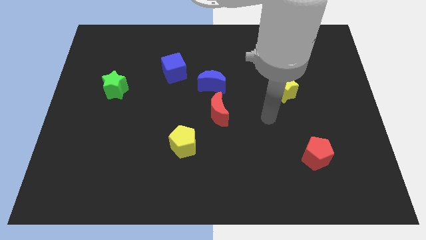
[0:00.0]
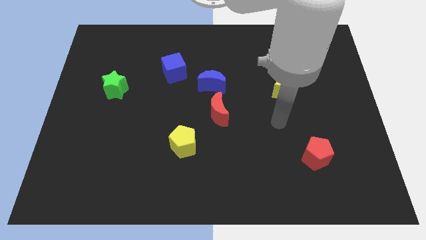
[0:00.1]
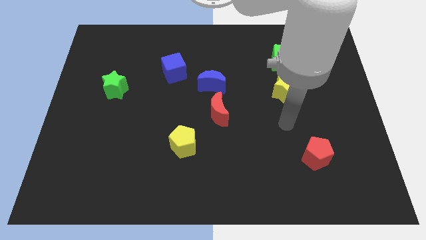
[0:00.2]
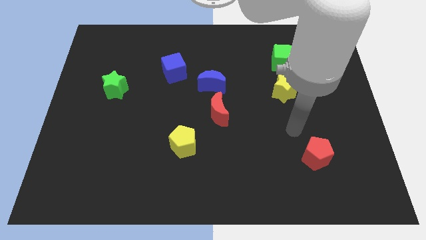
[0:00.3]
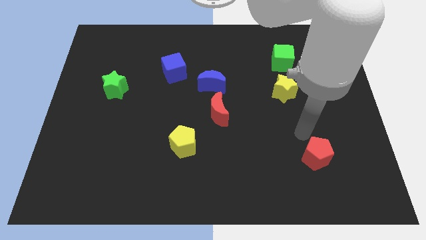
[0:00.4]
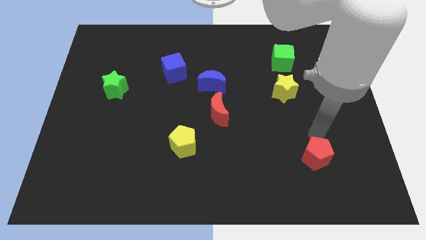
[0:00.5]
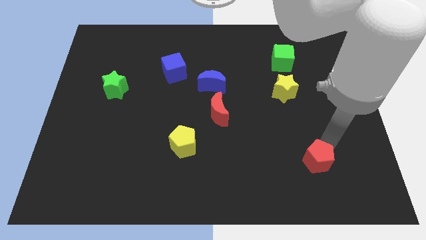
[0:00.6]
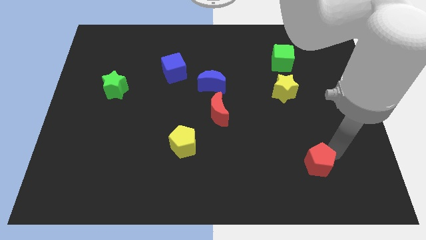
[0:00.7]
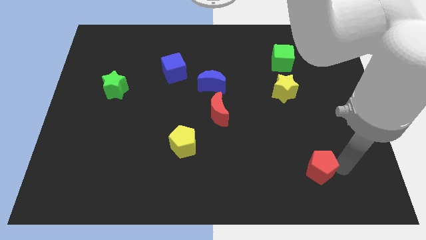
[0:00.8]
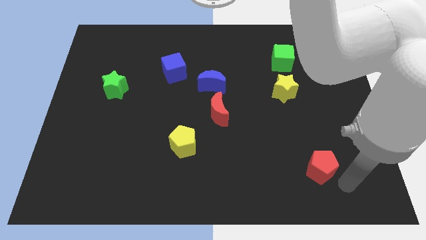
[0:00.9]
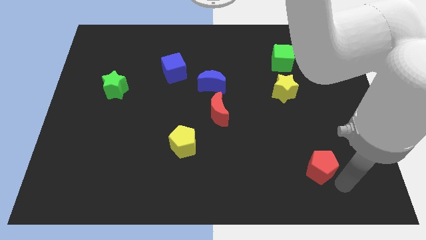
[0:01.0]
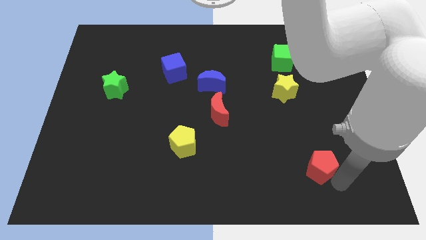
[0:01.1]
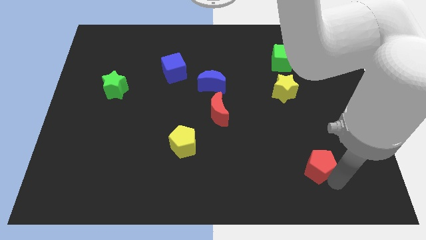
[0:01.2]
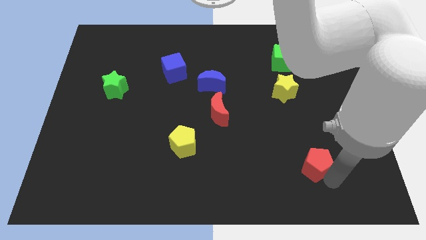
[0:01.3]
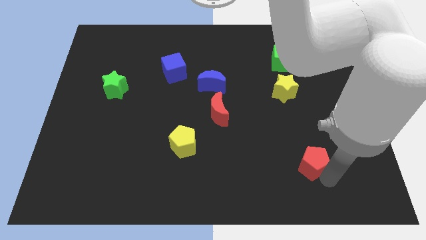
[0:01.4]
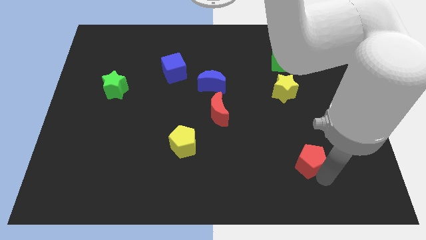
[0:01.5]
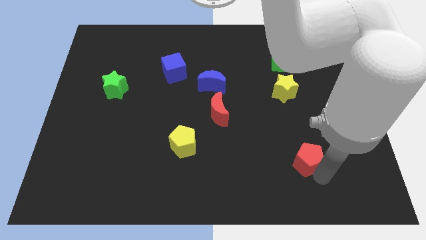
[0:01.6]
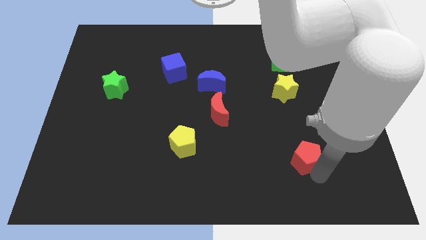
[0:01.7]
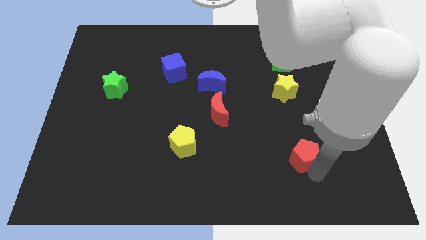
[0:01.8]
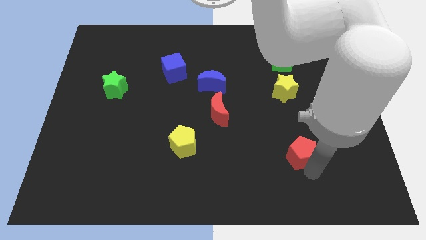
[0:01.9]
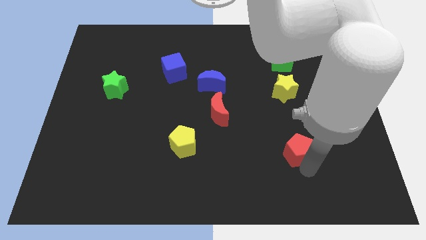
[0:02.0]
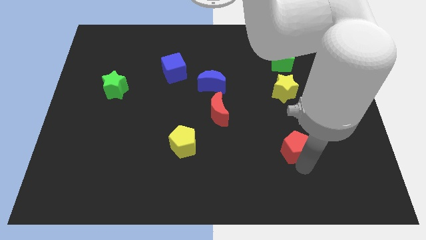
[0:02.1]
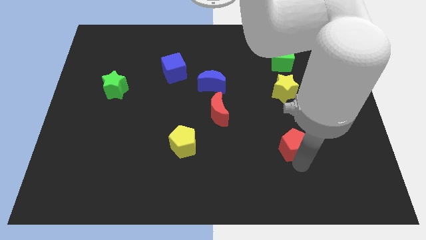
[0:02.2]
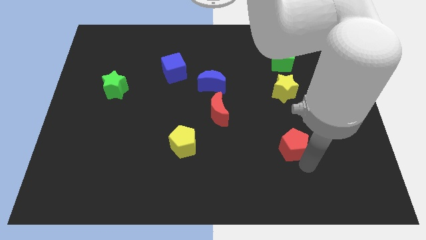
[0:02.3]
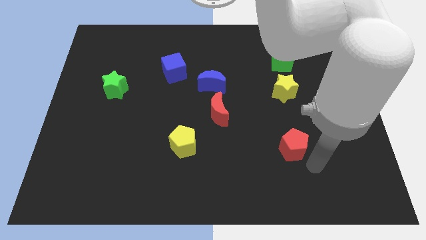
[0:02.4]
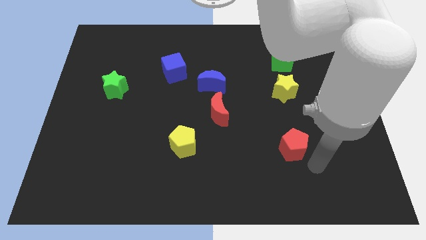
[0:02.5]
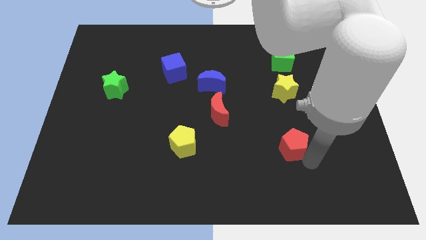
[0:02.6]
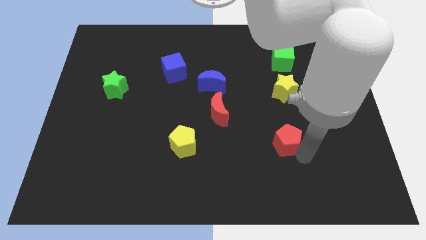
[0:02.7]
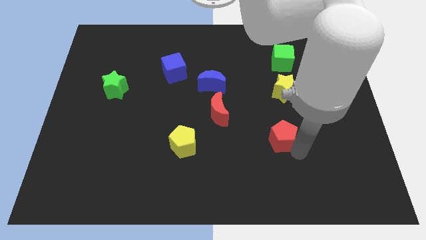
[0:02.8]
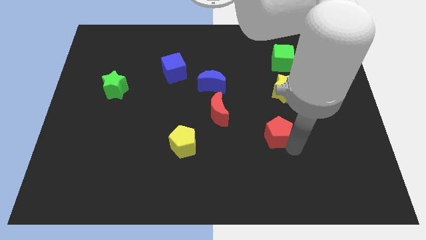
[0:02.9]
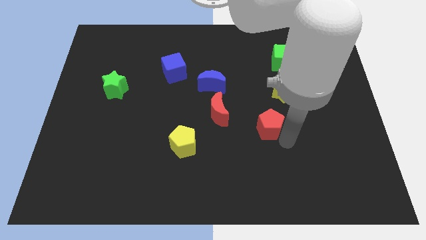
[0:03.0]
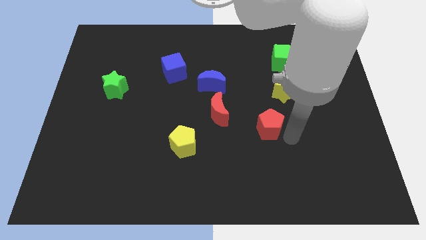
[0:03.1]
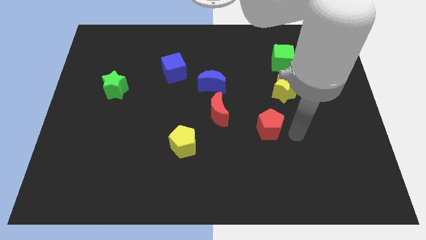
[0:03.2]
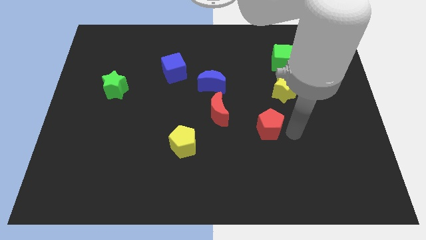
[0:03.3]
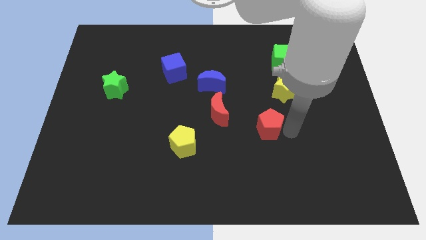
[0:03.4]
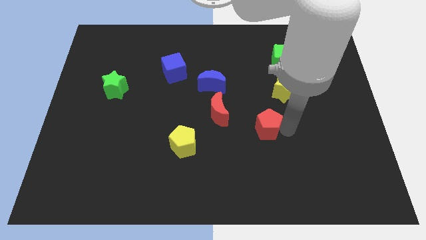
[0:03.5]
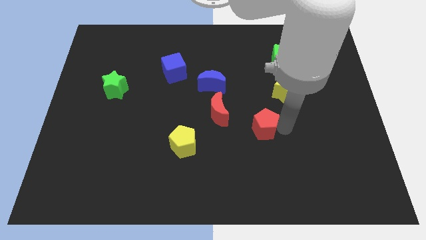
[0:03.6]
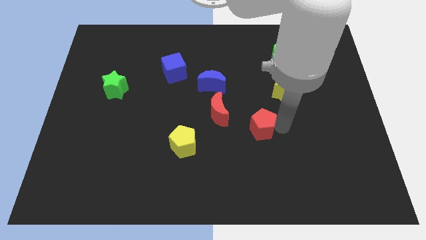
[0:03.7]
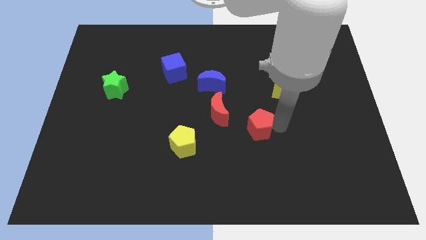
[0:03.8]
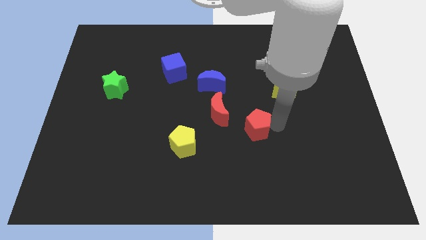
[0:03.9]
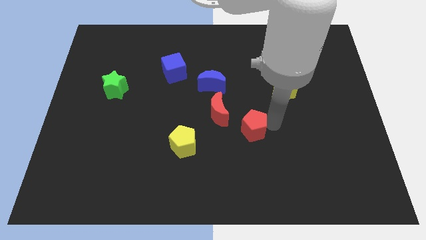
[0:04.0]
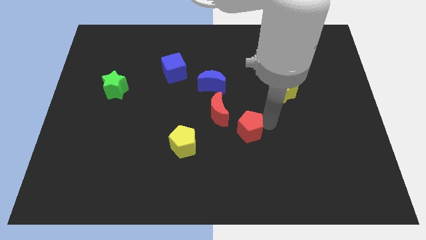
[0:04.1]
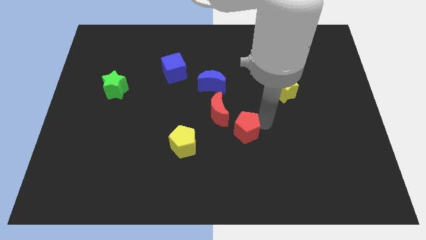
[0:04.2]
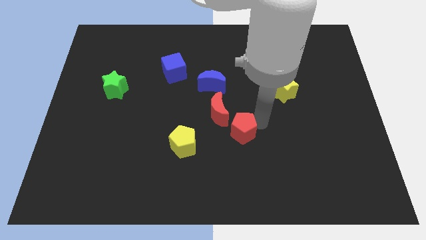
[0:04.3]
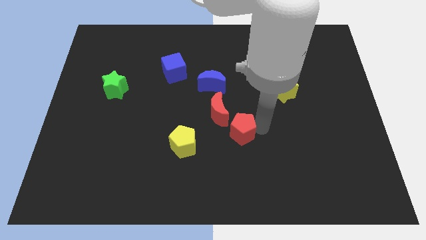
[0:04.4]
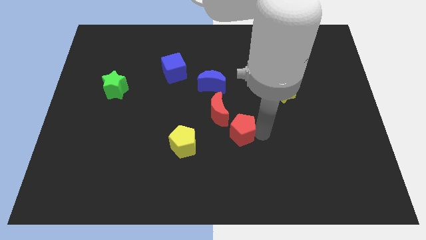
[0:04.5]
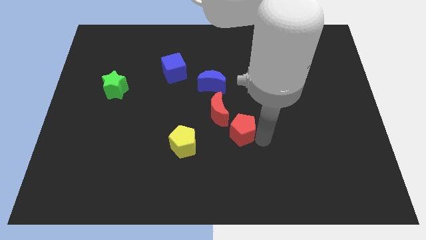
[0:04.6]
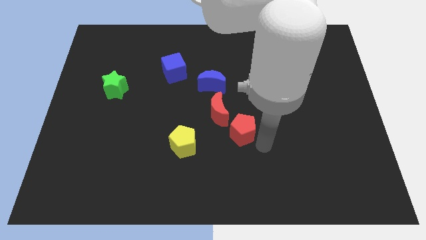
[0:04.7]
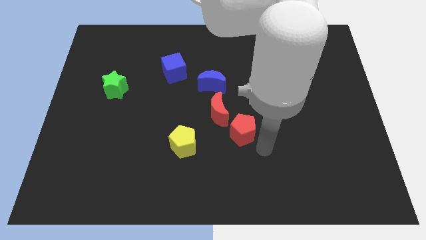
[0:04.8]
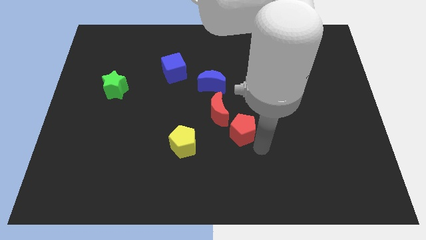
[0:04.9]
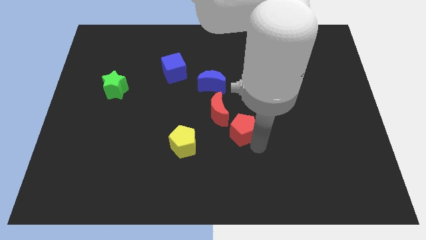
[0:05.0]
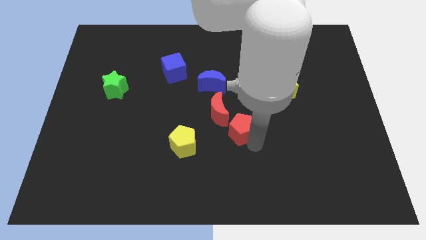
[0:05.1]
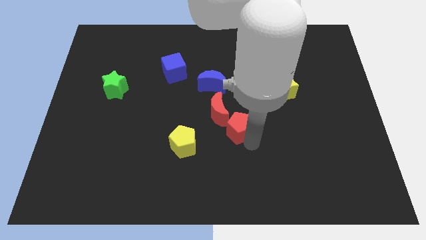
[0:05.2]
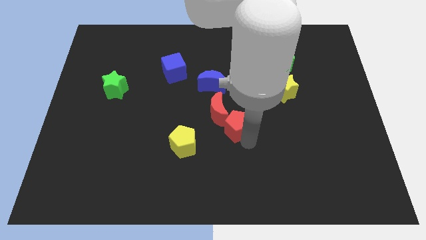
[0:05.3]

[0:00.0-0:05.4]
slide the red pentagon close to the red moon

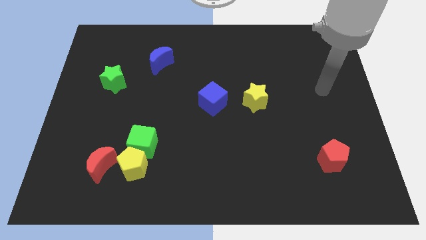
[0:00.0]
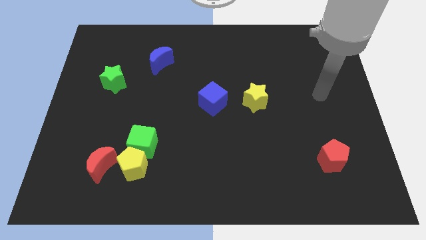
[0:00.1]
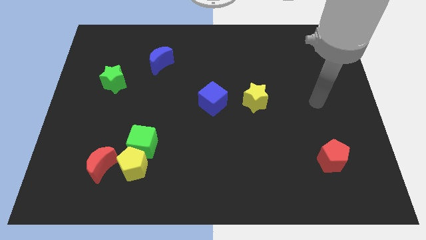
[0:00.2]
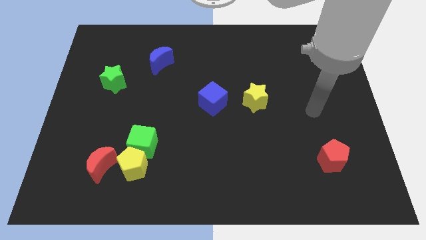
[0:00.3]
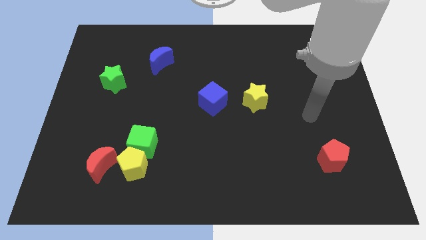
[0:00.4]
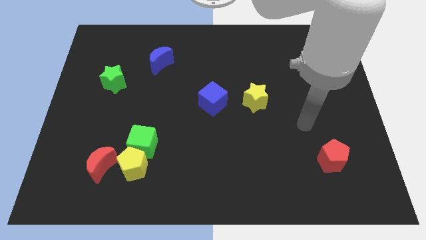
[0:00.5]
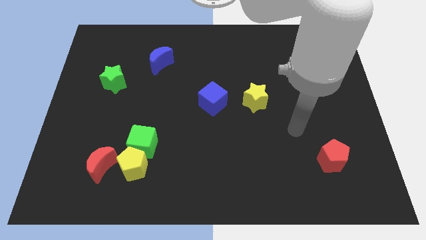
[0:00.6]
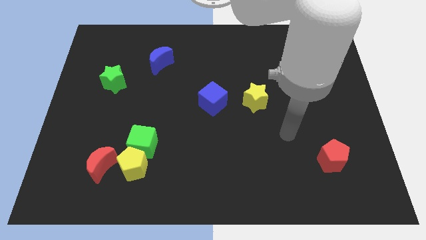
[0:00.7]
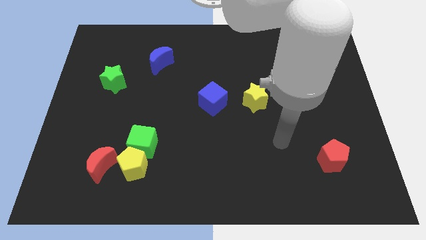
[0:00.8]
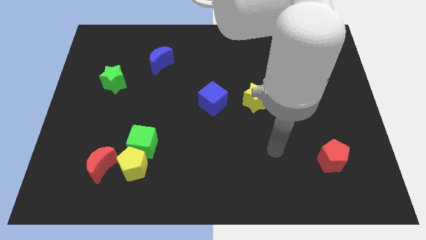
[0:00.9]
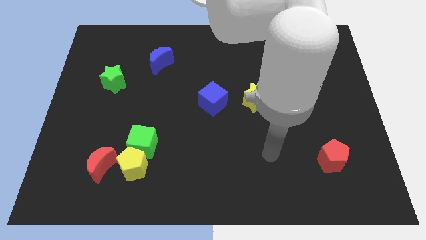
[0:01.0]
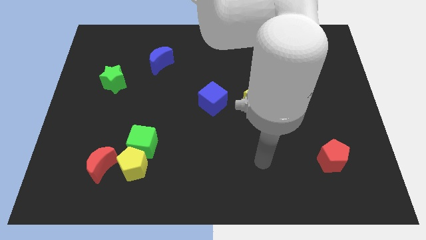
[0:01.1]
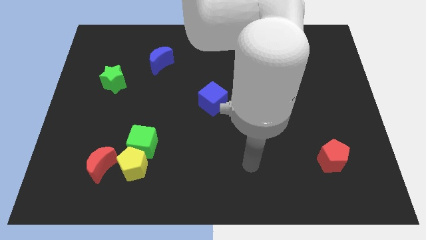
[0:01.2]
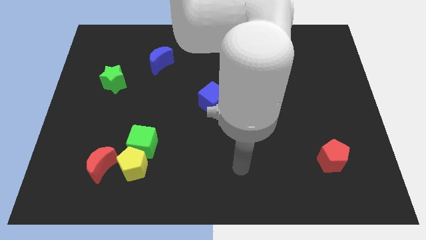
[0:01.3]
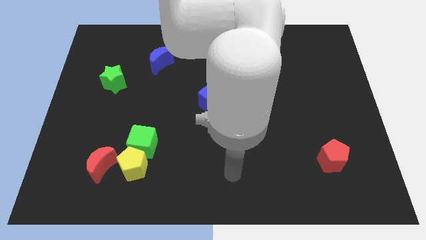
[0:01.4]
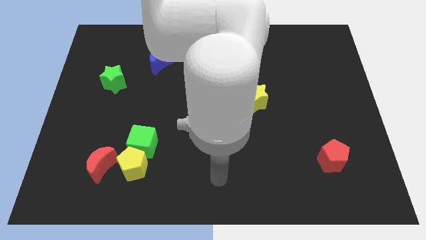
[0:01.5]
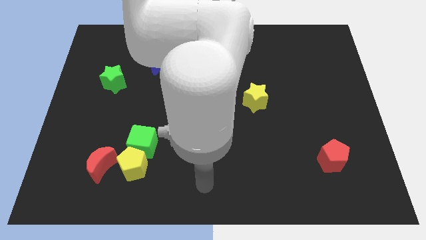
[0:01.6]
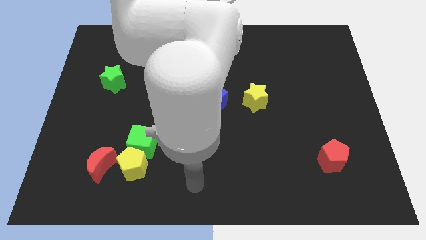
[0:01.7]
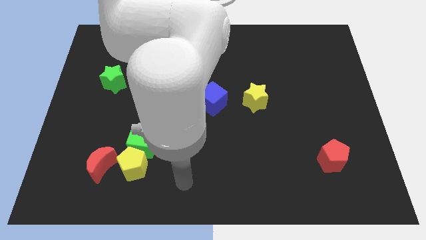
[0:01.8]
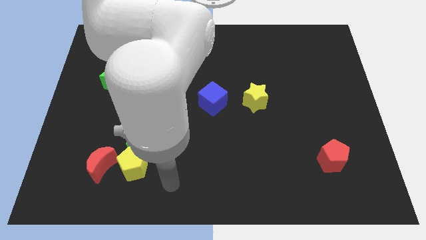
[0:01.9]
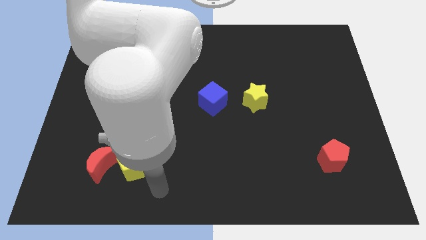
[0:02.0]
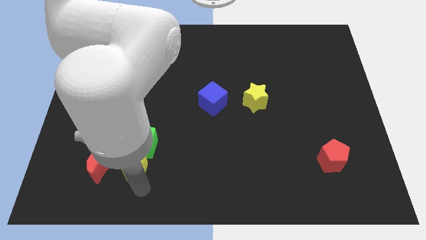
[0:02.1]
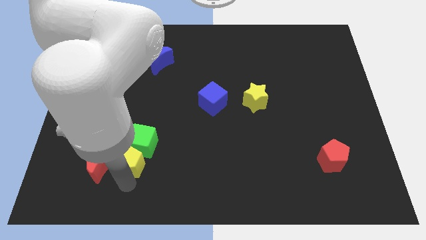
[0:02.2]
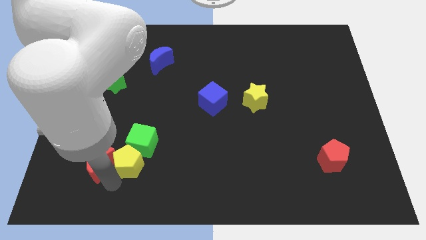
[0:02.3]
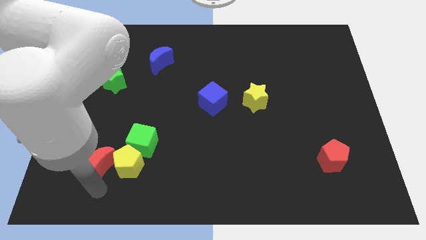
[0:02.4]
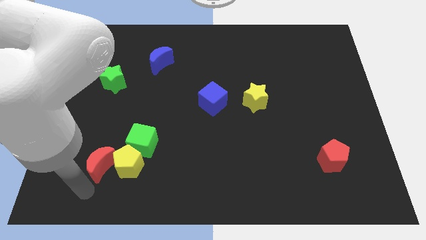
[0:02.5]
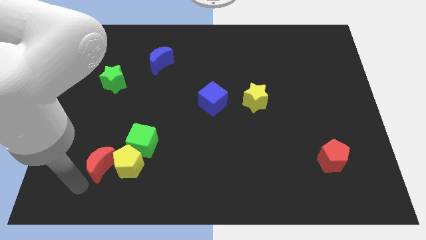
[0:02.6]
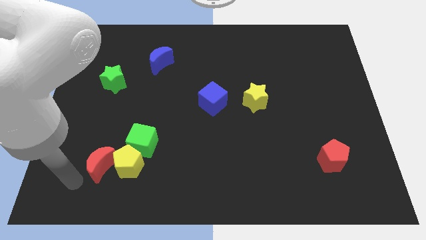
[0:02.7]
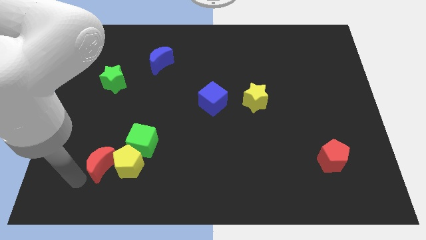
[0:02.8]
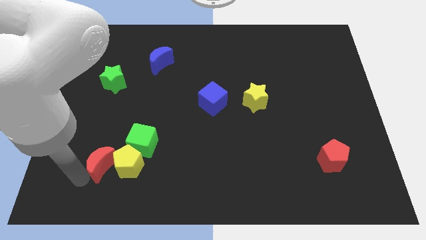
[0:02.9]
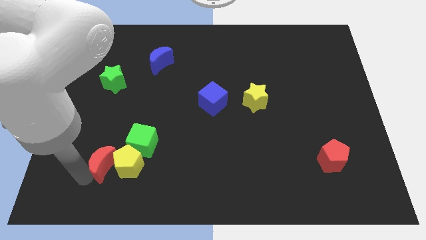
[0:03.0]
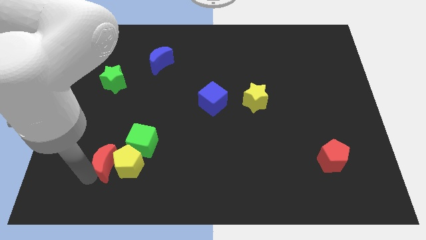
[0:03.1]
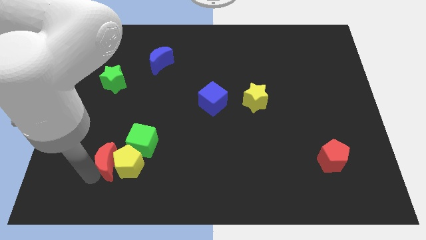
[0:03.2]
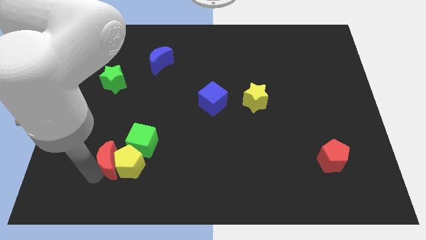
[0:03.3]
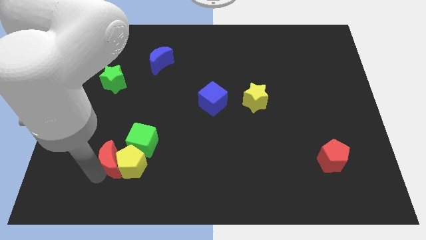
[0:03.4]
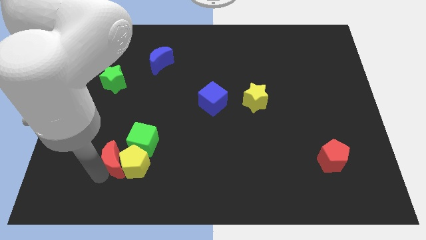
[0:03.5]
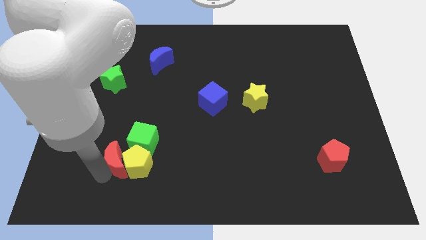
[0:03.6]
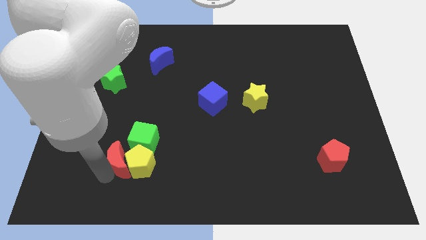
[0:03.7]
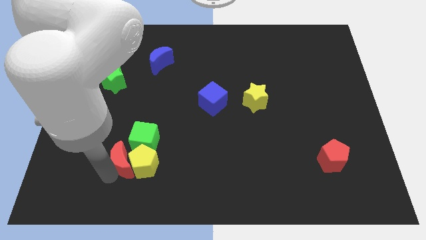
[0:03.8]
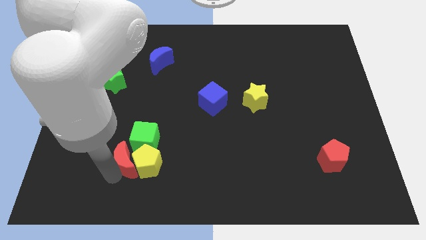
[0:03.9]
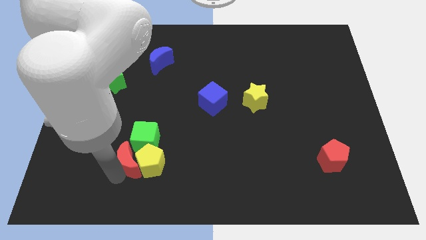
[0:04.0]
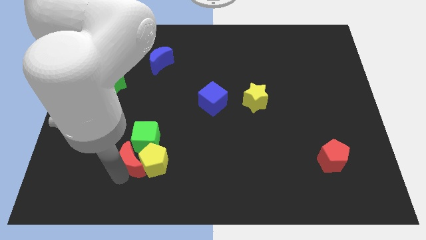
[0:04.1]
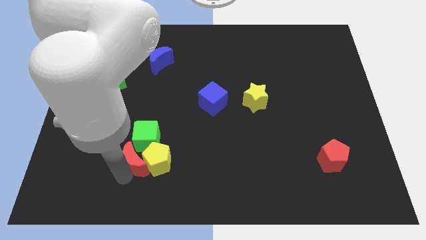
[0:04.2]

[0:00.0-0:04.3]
push the red moon to the green cube
